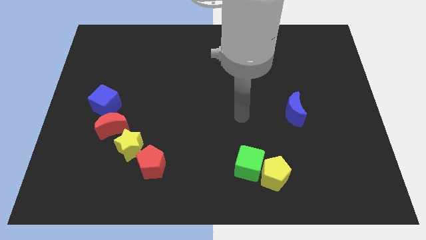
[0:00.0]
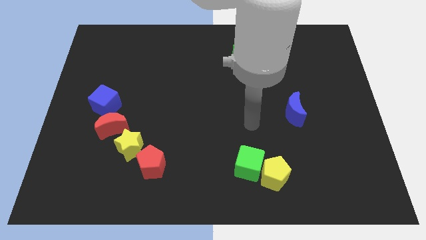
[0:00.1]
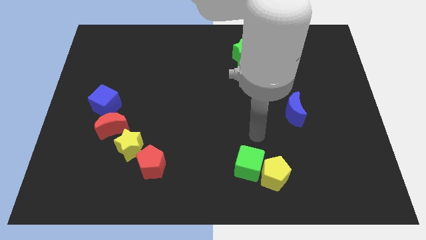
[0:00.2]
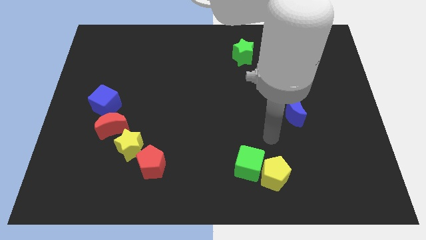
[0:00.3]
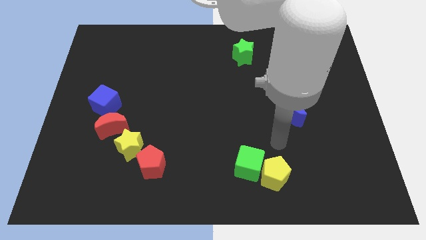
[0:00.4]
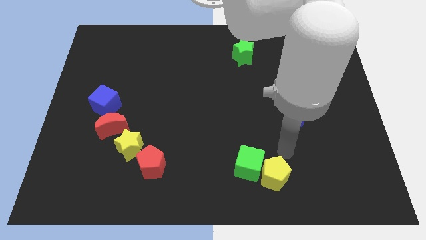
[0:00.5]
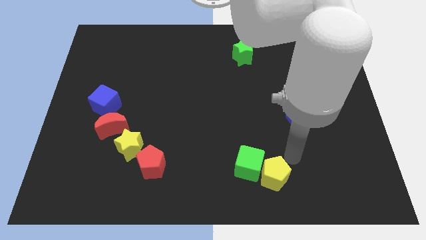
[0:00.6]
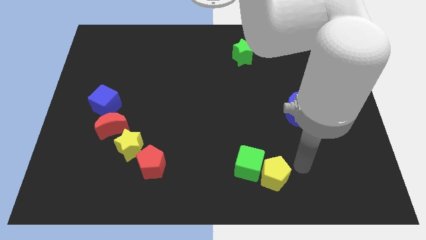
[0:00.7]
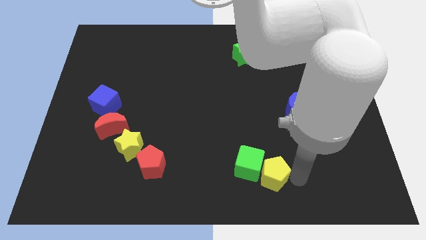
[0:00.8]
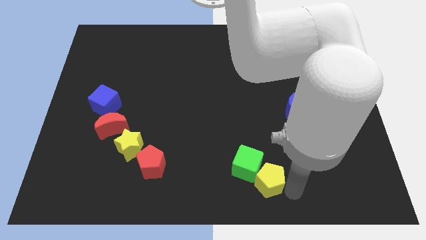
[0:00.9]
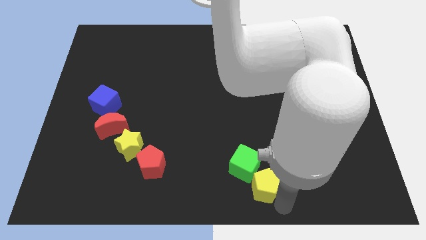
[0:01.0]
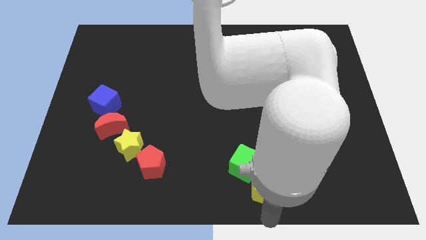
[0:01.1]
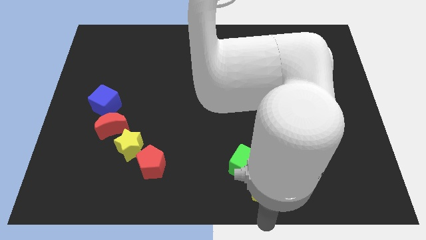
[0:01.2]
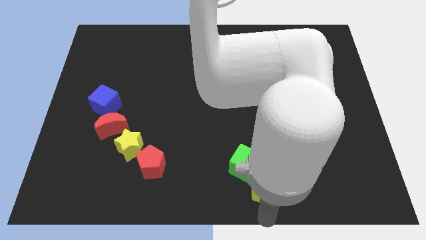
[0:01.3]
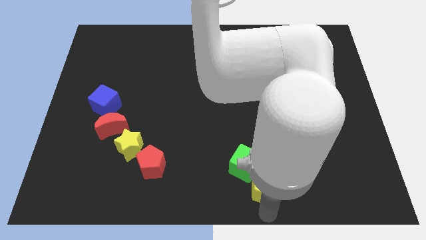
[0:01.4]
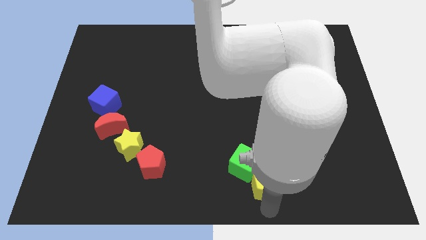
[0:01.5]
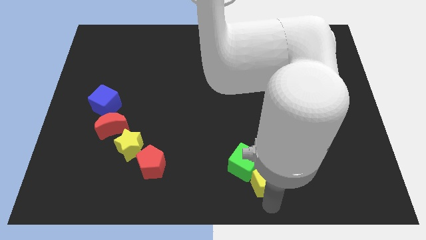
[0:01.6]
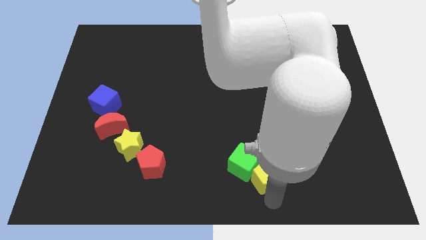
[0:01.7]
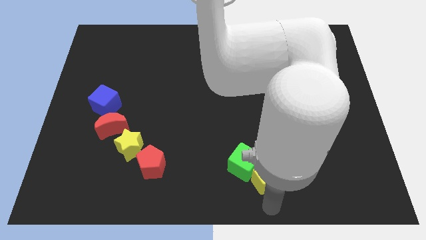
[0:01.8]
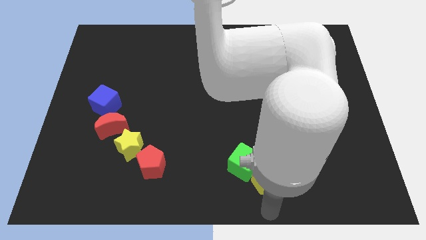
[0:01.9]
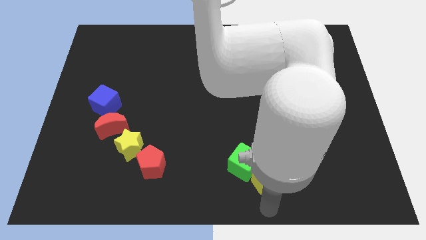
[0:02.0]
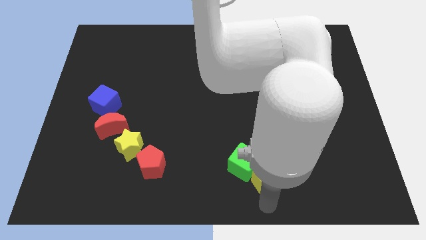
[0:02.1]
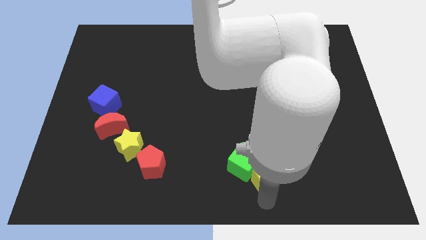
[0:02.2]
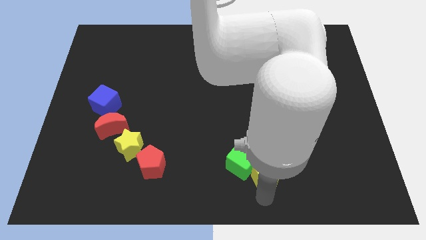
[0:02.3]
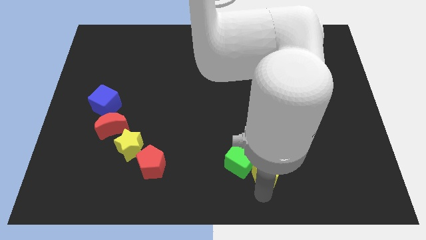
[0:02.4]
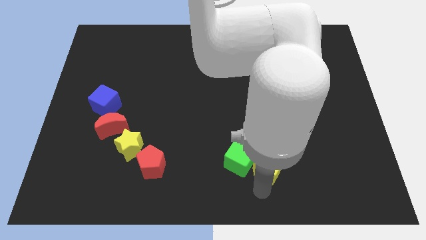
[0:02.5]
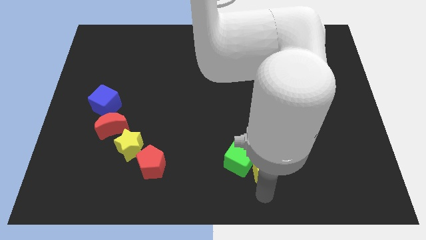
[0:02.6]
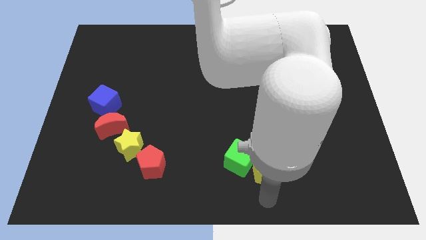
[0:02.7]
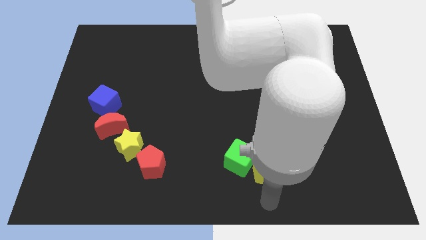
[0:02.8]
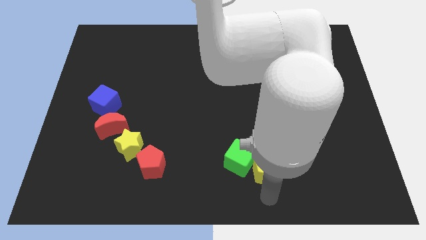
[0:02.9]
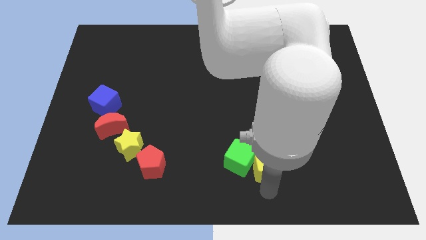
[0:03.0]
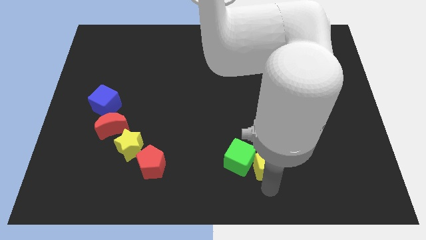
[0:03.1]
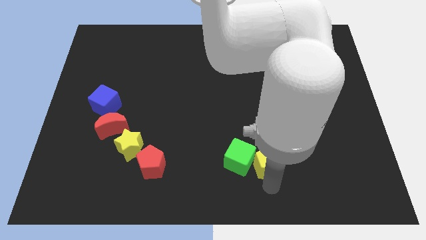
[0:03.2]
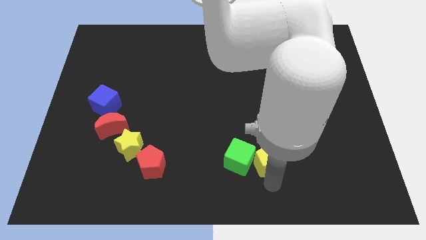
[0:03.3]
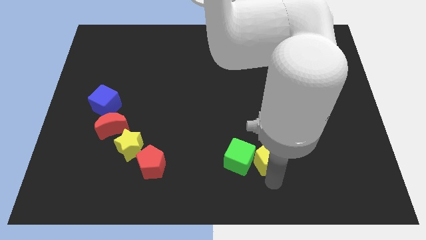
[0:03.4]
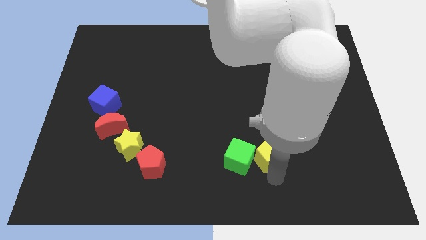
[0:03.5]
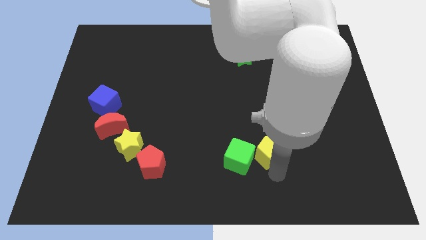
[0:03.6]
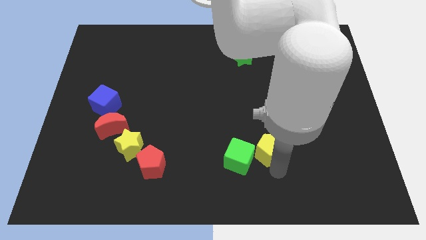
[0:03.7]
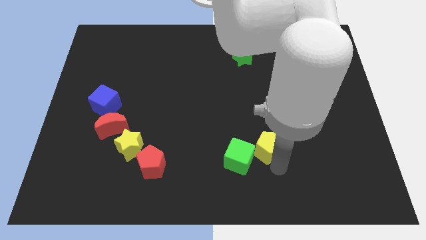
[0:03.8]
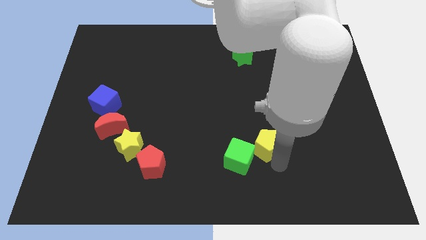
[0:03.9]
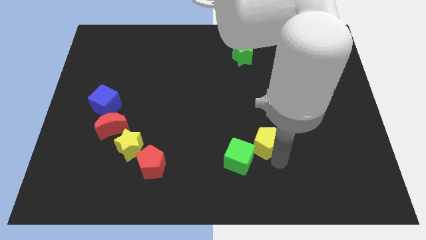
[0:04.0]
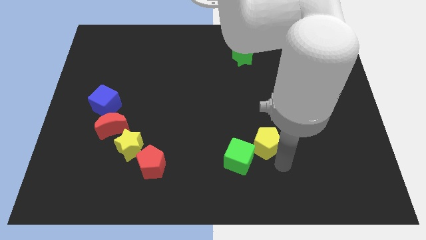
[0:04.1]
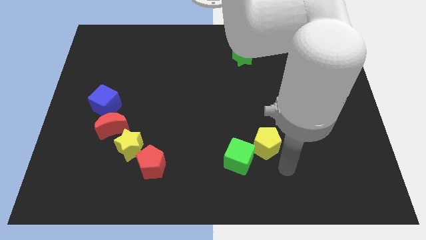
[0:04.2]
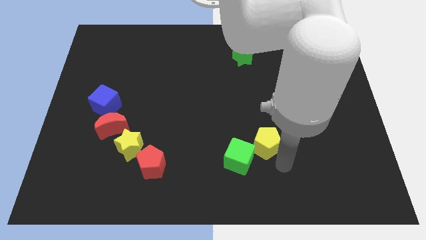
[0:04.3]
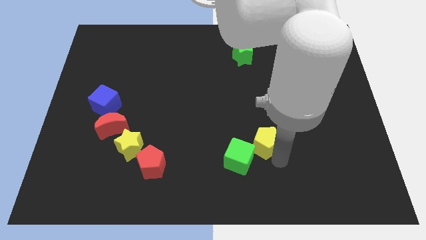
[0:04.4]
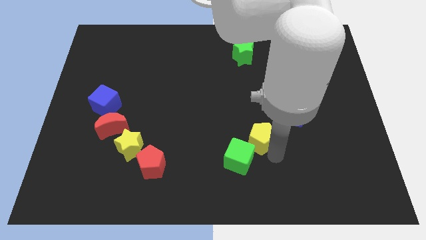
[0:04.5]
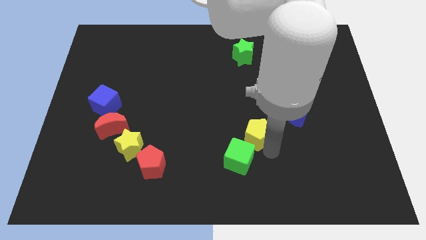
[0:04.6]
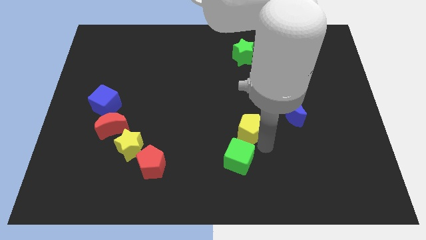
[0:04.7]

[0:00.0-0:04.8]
move the yellow pentagon to the middle

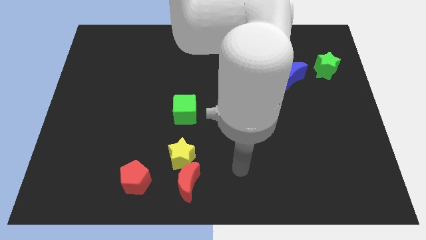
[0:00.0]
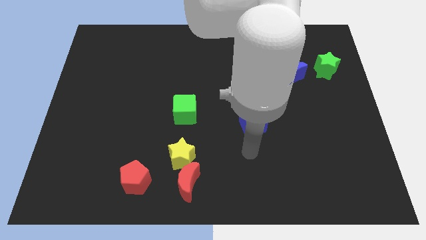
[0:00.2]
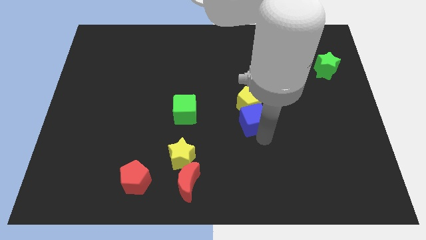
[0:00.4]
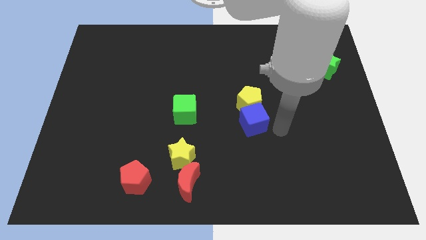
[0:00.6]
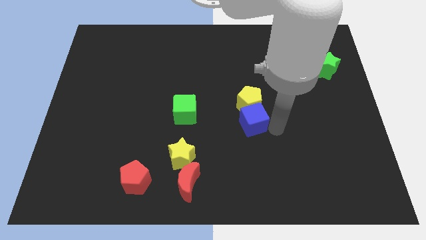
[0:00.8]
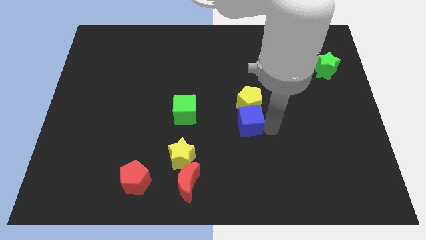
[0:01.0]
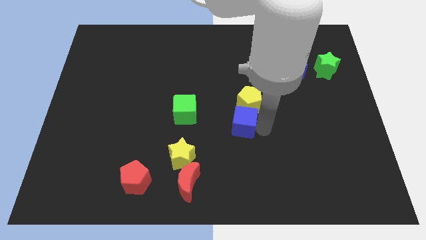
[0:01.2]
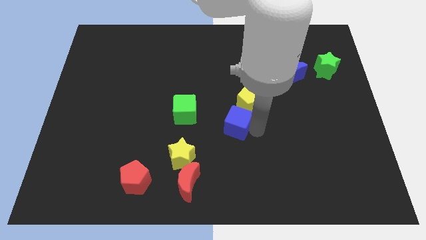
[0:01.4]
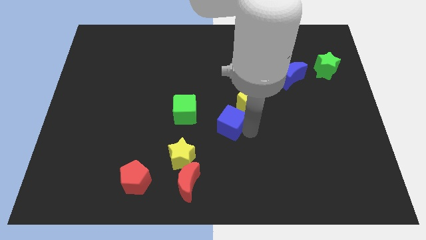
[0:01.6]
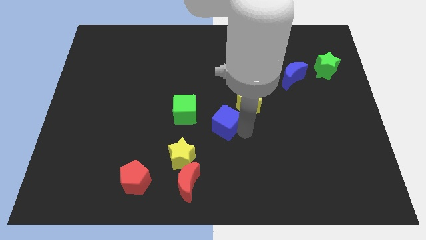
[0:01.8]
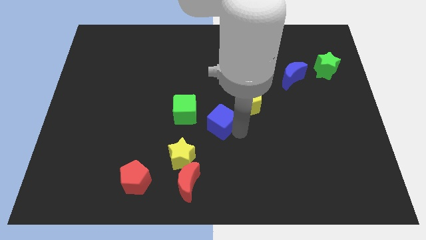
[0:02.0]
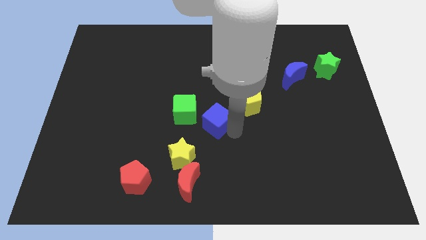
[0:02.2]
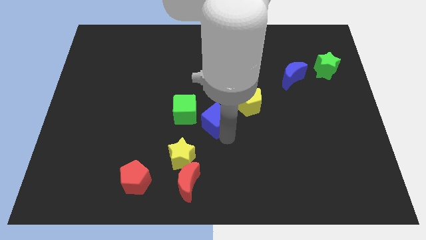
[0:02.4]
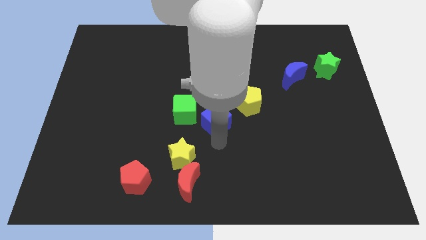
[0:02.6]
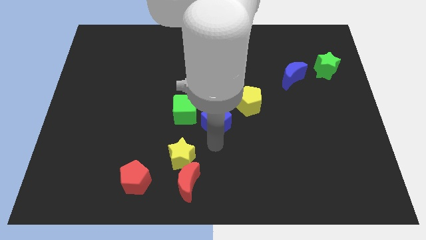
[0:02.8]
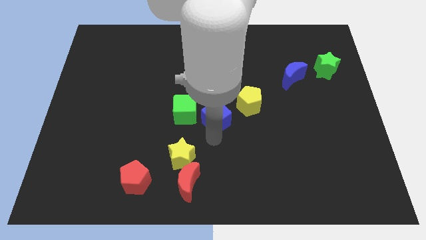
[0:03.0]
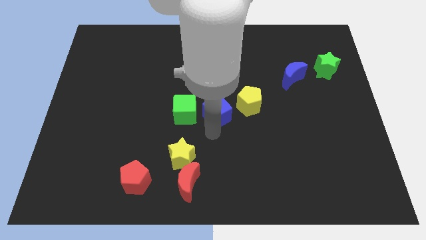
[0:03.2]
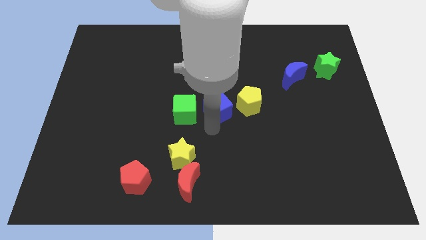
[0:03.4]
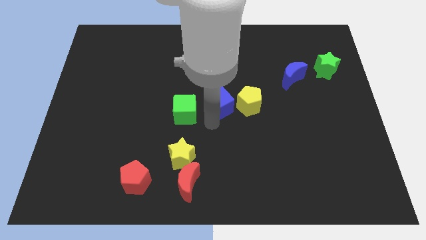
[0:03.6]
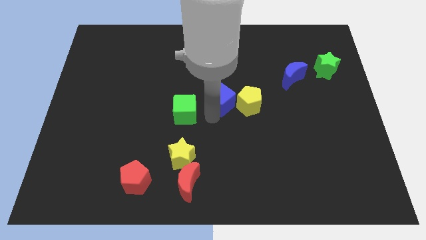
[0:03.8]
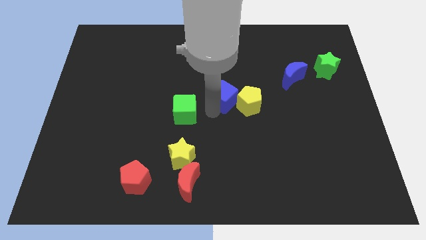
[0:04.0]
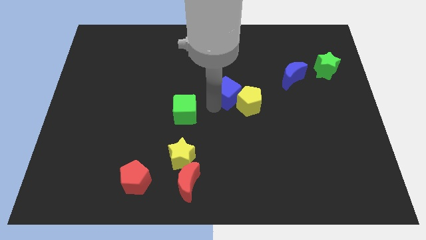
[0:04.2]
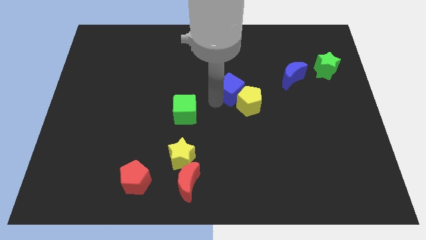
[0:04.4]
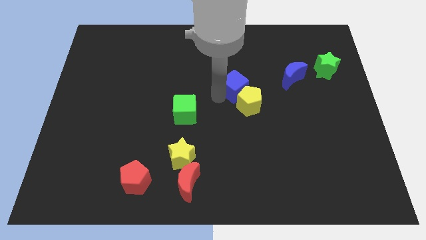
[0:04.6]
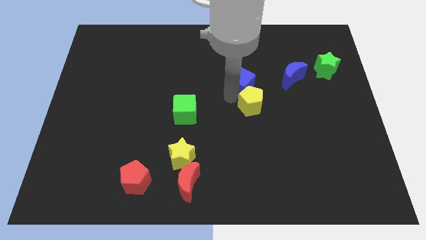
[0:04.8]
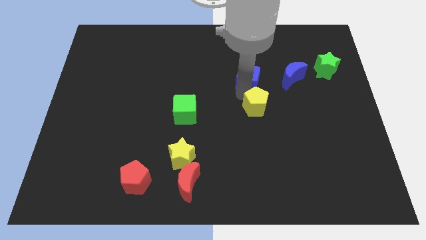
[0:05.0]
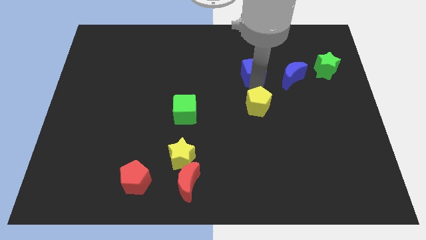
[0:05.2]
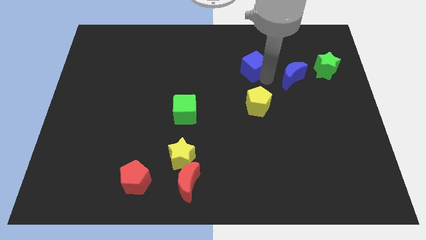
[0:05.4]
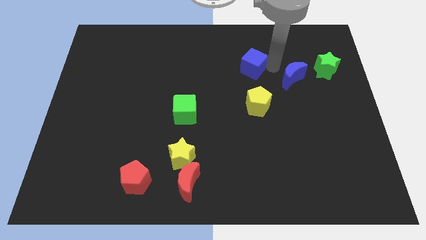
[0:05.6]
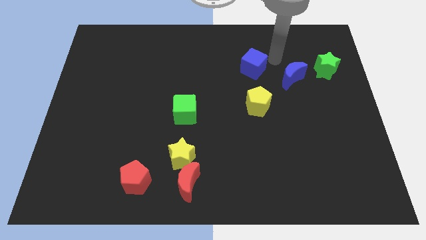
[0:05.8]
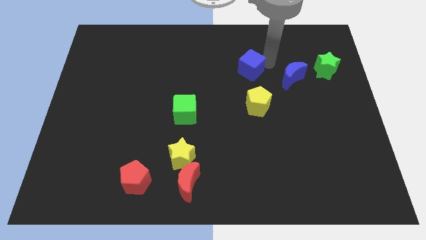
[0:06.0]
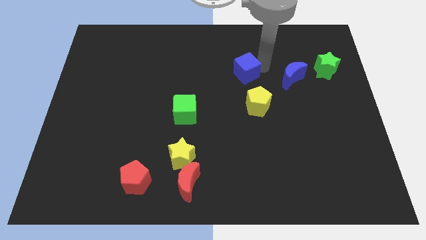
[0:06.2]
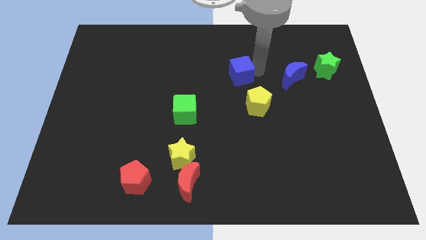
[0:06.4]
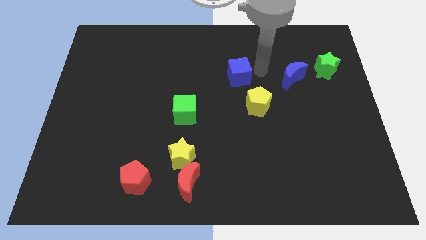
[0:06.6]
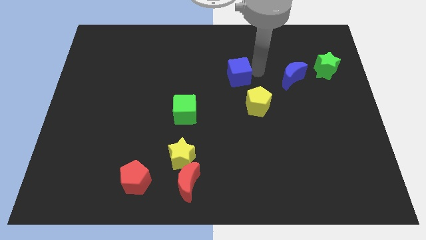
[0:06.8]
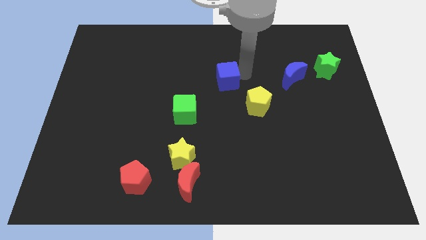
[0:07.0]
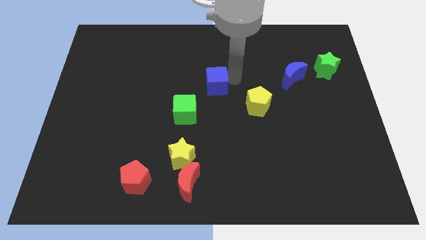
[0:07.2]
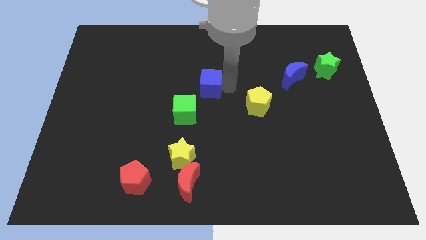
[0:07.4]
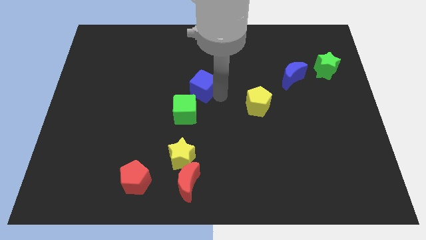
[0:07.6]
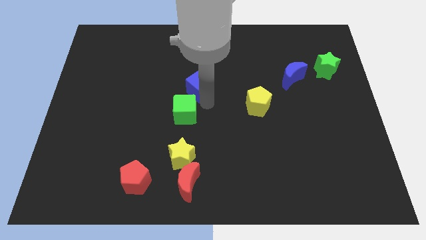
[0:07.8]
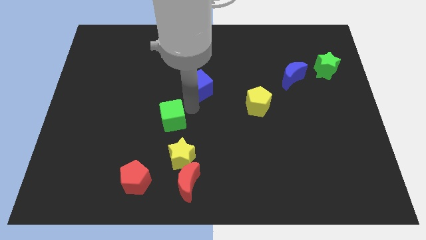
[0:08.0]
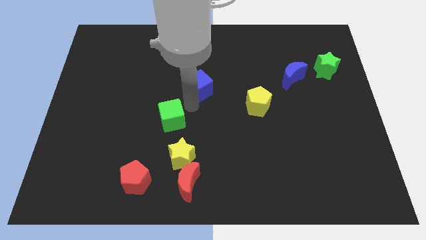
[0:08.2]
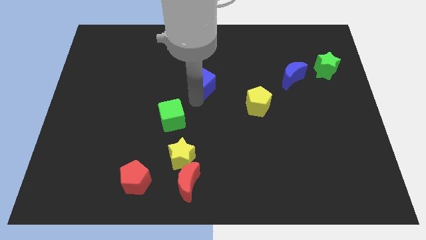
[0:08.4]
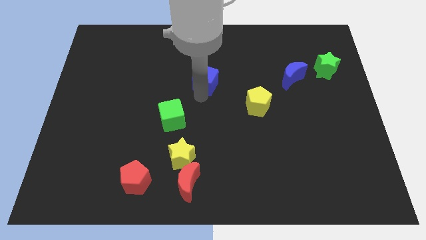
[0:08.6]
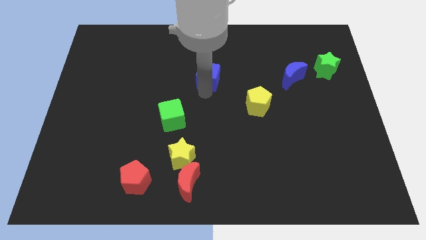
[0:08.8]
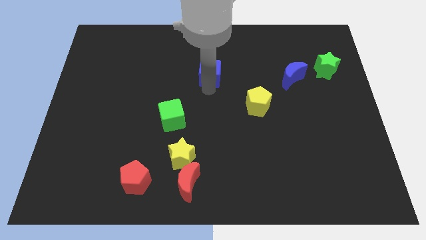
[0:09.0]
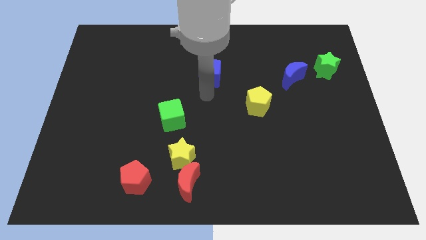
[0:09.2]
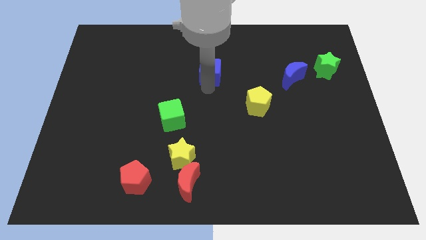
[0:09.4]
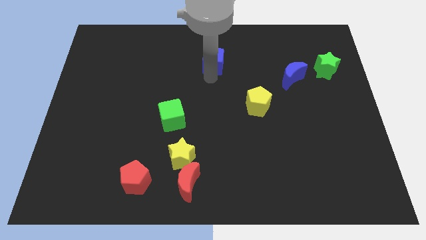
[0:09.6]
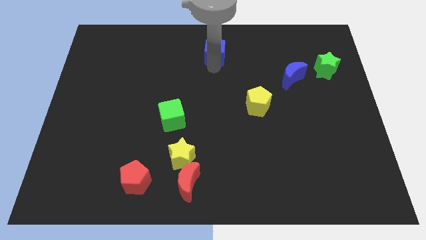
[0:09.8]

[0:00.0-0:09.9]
move the blue cube to the top side
